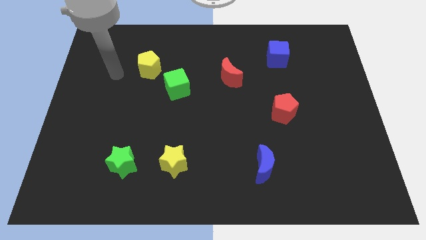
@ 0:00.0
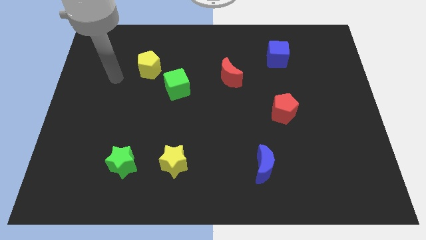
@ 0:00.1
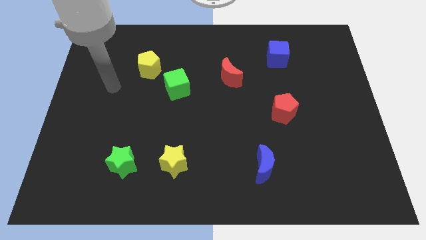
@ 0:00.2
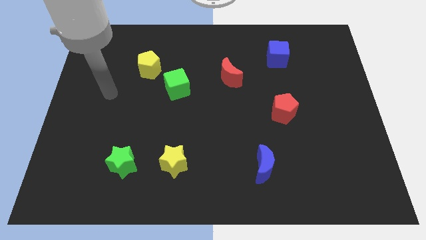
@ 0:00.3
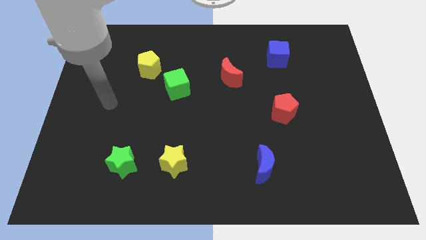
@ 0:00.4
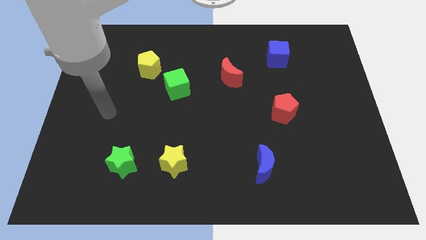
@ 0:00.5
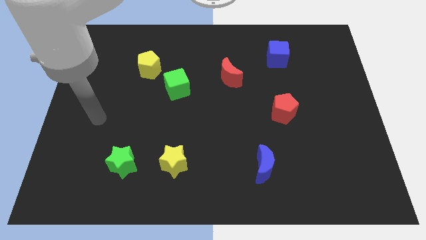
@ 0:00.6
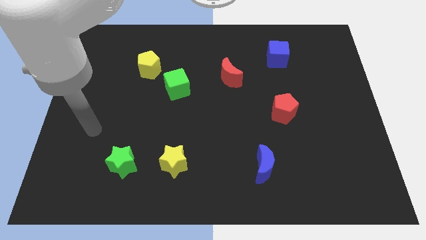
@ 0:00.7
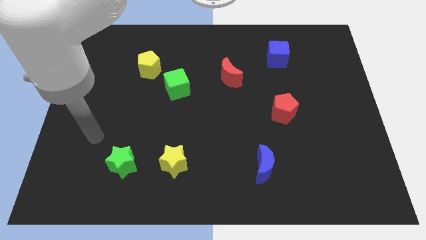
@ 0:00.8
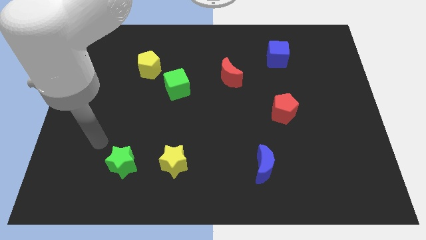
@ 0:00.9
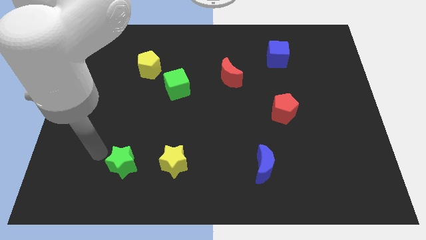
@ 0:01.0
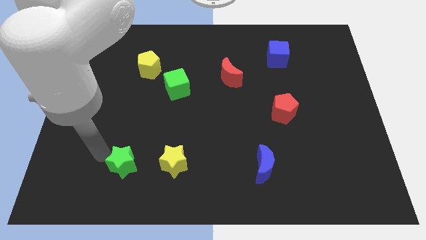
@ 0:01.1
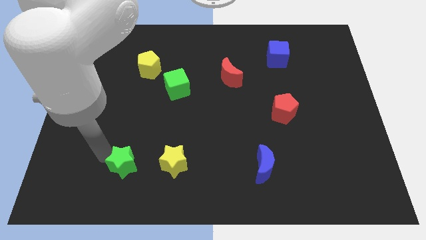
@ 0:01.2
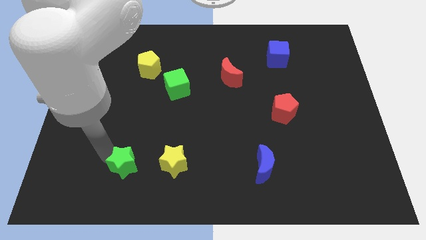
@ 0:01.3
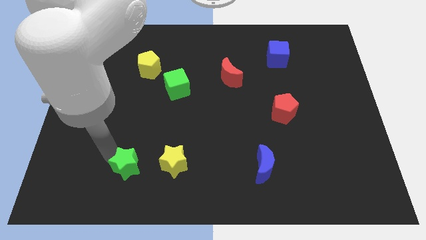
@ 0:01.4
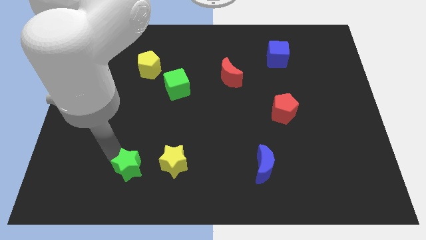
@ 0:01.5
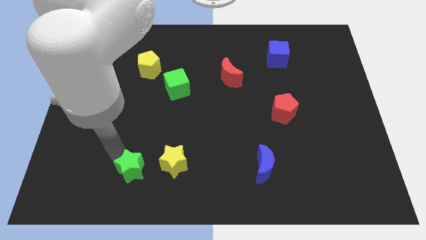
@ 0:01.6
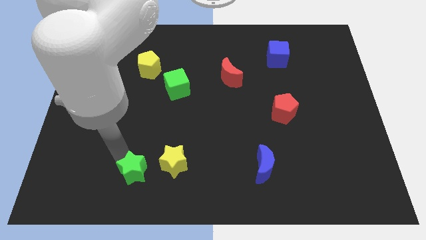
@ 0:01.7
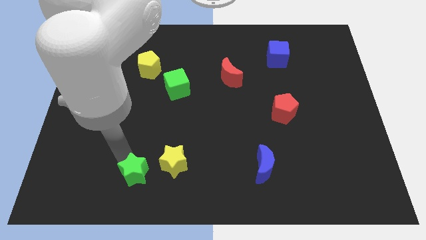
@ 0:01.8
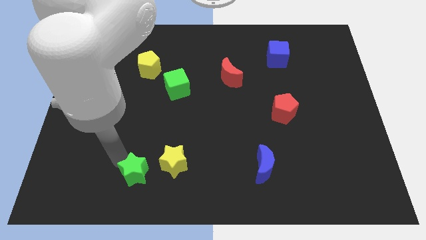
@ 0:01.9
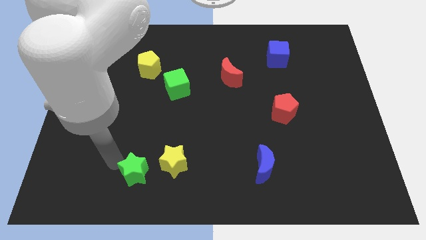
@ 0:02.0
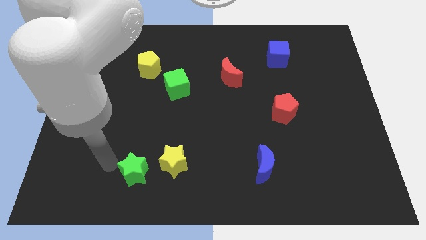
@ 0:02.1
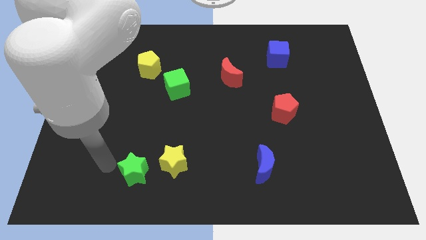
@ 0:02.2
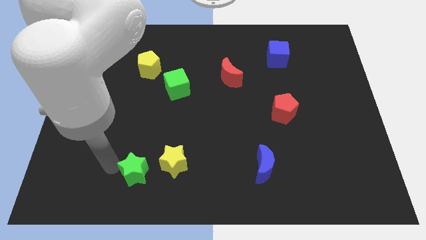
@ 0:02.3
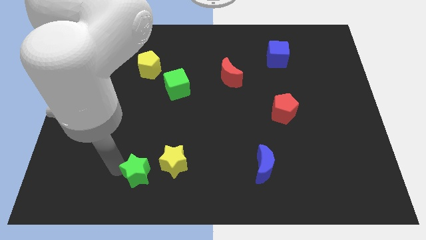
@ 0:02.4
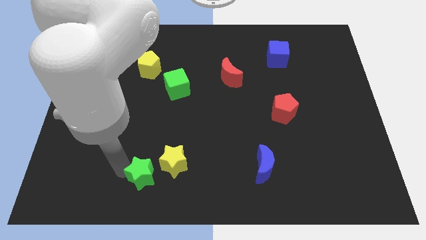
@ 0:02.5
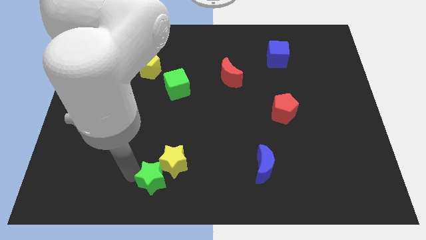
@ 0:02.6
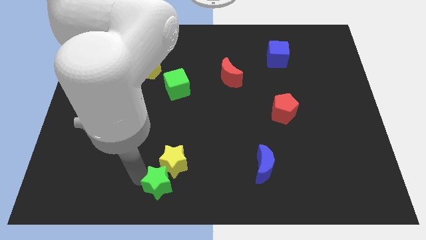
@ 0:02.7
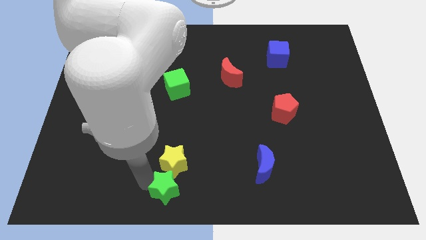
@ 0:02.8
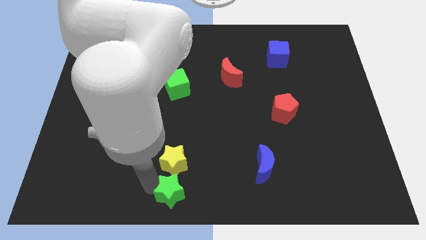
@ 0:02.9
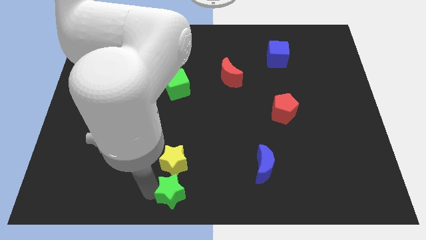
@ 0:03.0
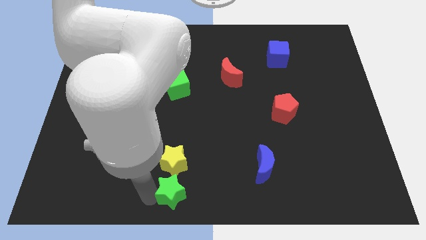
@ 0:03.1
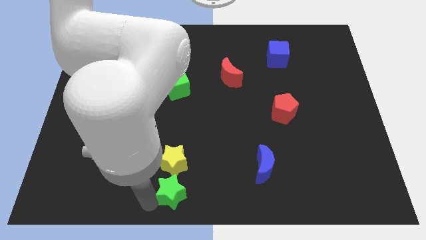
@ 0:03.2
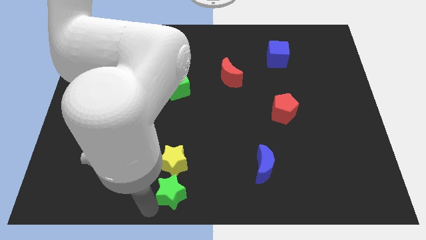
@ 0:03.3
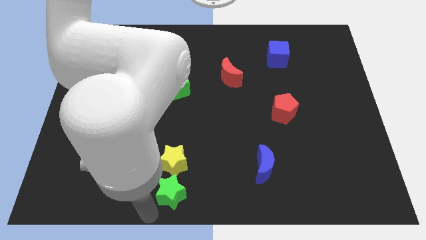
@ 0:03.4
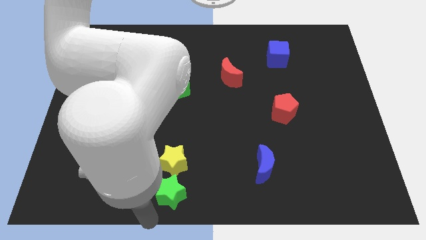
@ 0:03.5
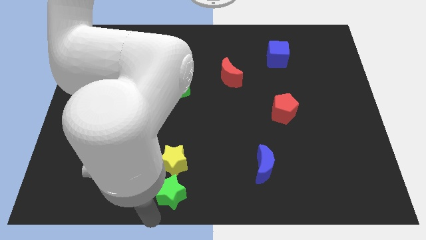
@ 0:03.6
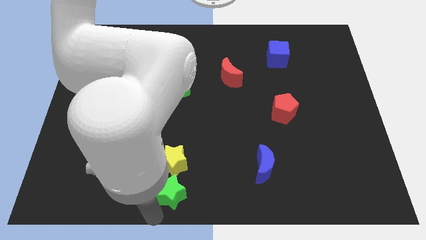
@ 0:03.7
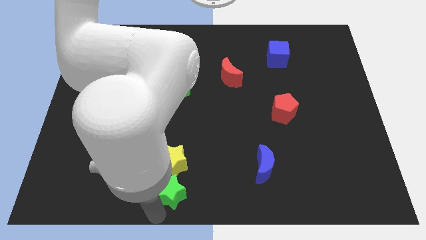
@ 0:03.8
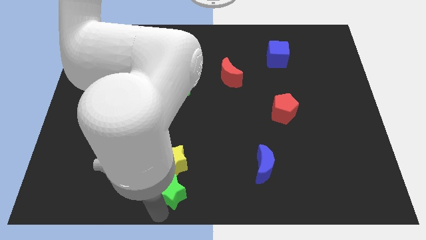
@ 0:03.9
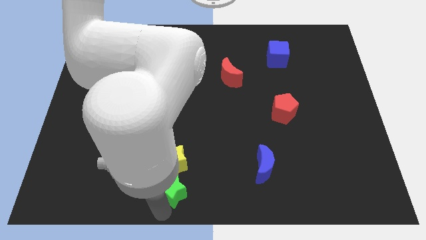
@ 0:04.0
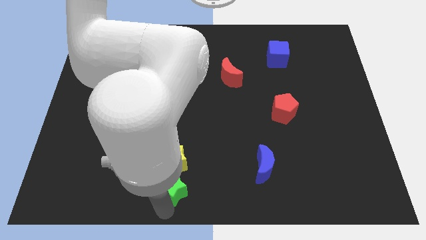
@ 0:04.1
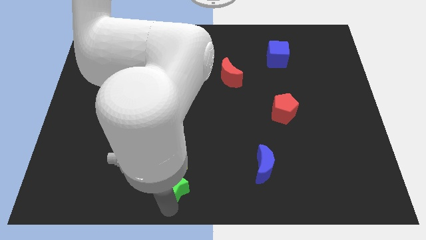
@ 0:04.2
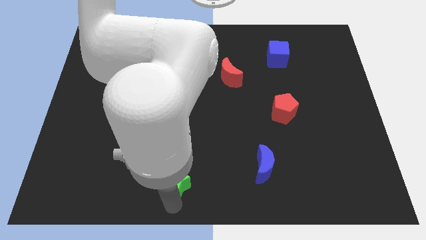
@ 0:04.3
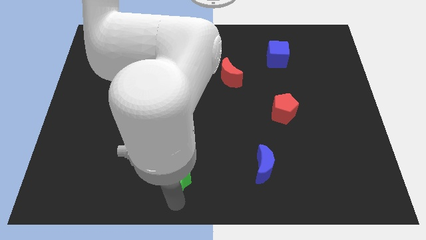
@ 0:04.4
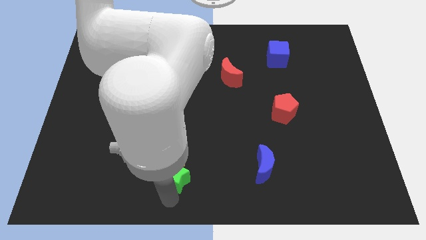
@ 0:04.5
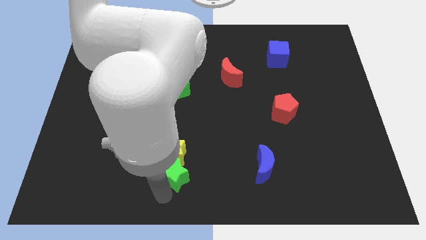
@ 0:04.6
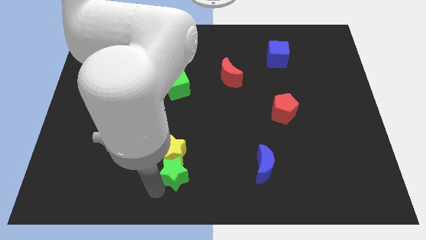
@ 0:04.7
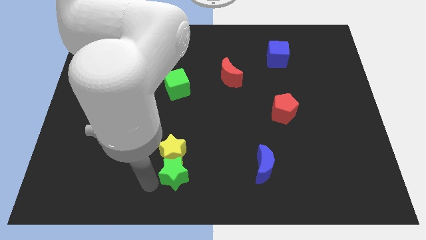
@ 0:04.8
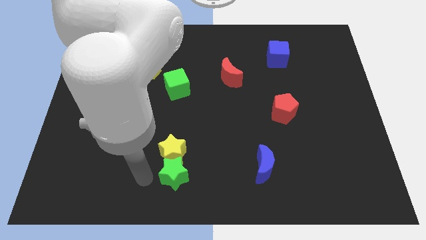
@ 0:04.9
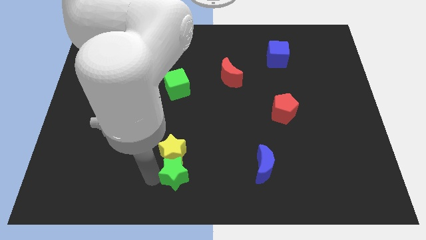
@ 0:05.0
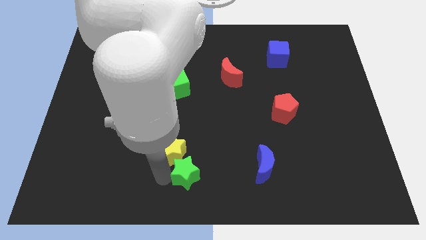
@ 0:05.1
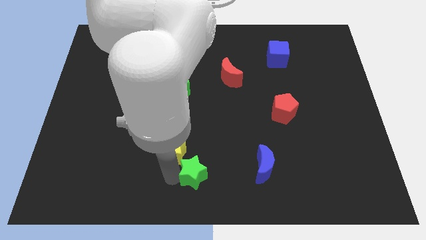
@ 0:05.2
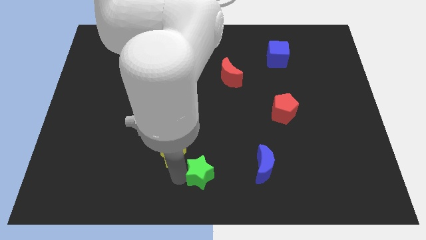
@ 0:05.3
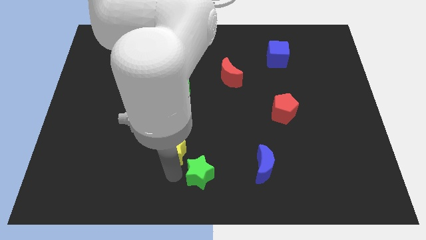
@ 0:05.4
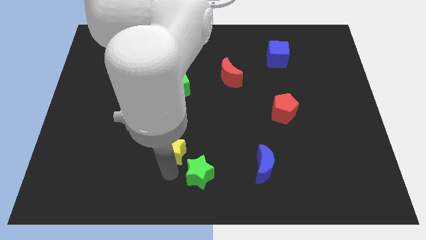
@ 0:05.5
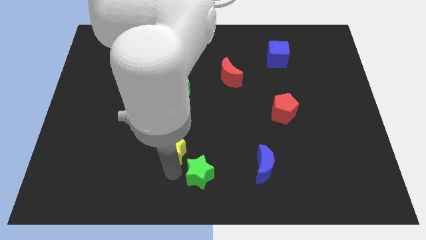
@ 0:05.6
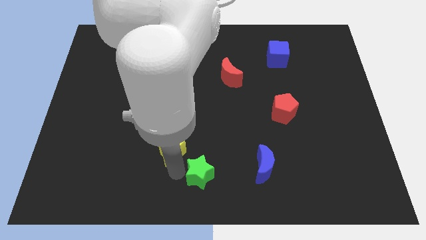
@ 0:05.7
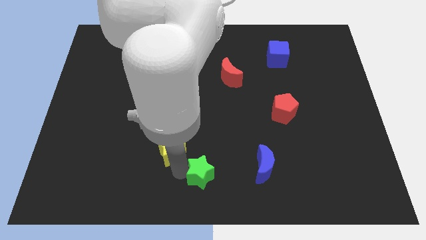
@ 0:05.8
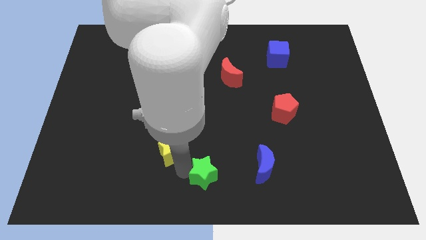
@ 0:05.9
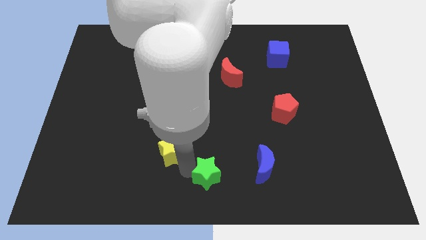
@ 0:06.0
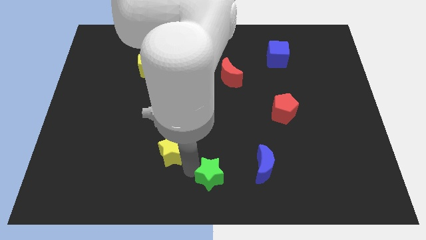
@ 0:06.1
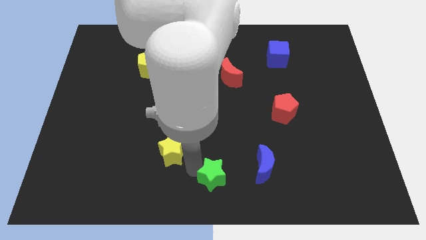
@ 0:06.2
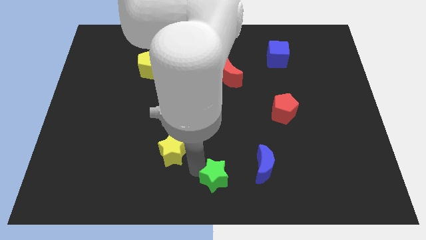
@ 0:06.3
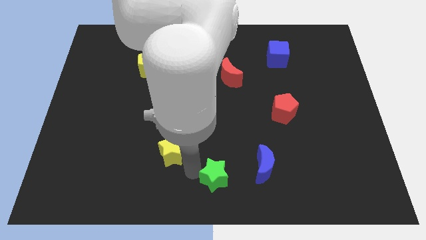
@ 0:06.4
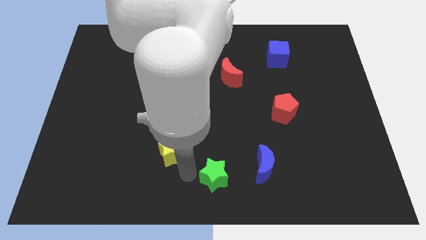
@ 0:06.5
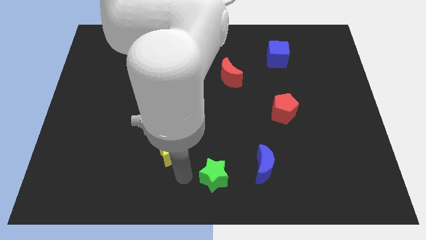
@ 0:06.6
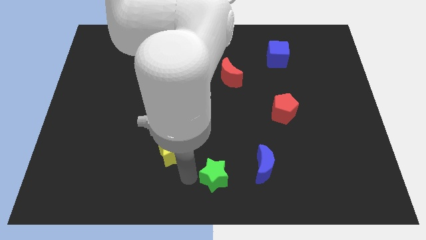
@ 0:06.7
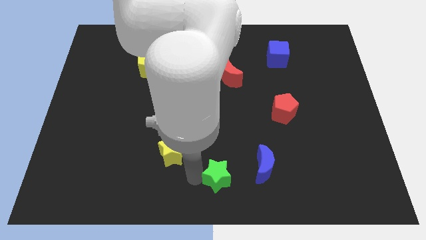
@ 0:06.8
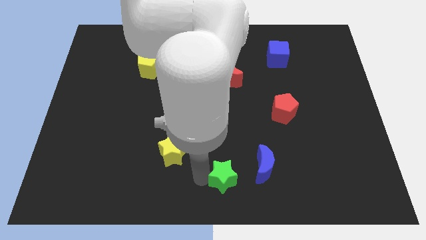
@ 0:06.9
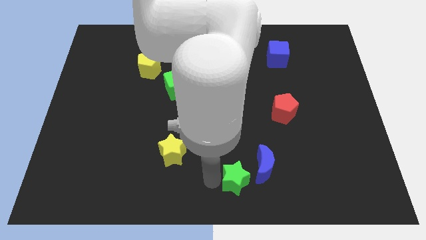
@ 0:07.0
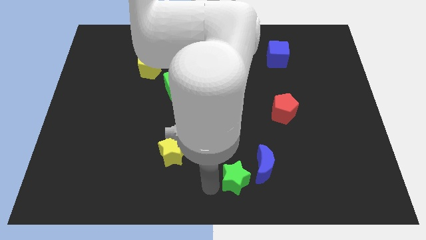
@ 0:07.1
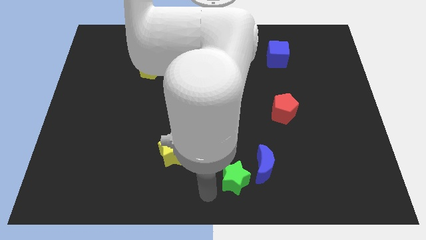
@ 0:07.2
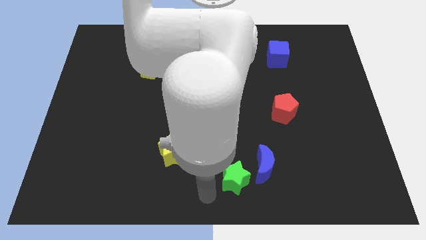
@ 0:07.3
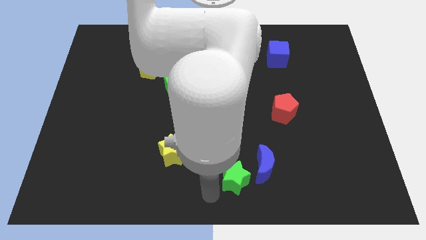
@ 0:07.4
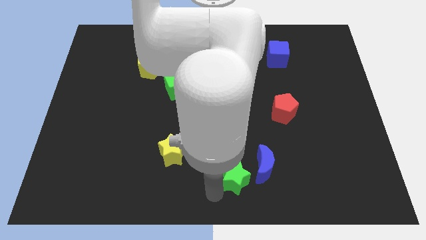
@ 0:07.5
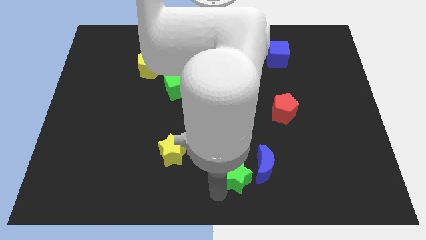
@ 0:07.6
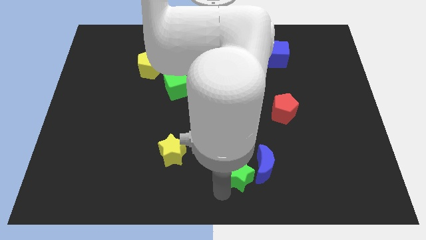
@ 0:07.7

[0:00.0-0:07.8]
push the green star next to the blue moon
